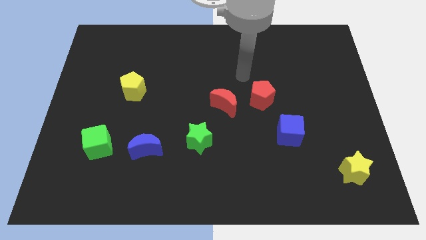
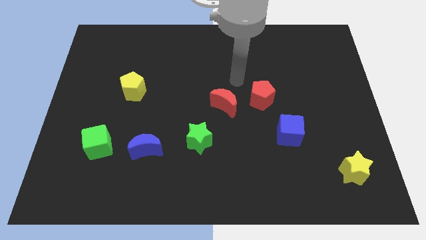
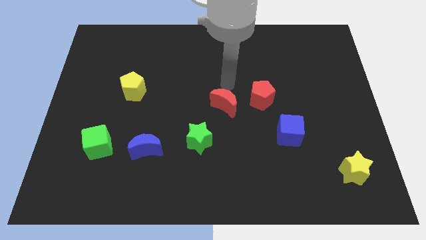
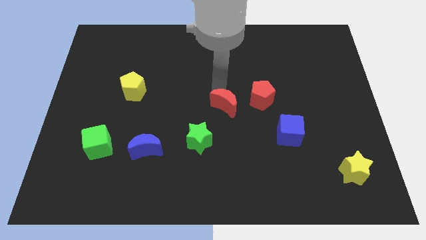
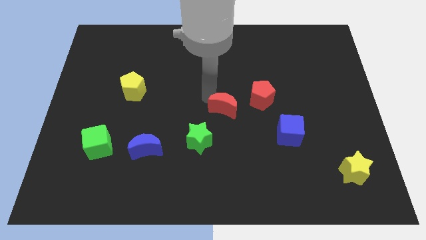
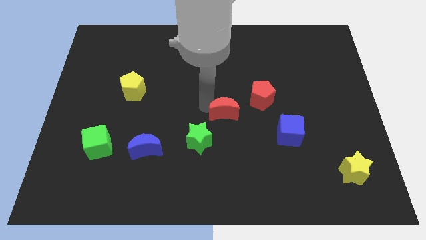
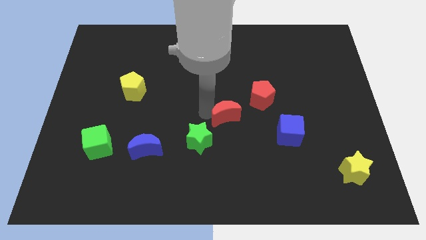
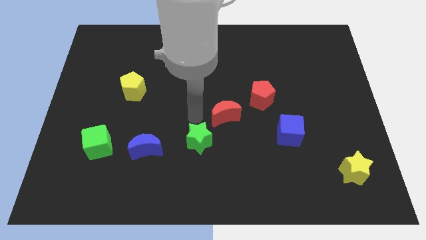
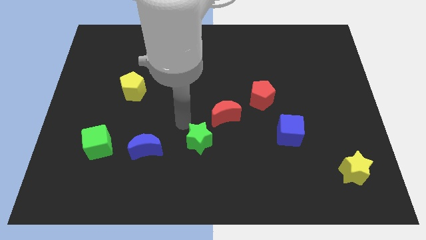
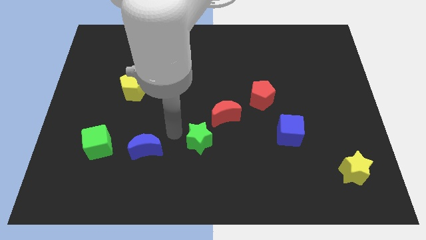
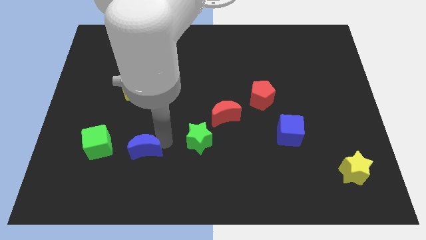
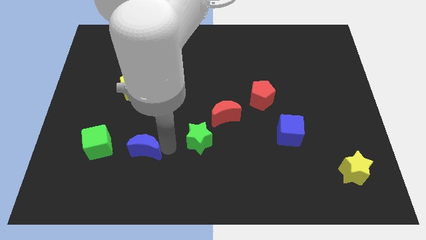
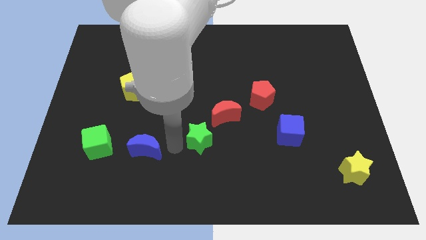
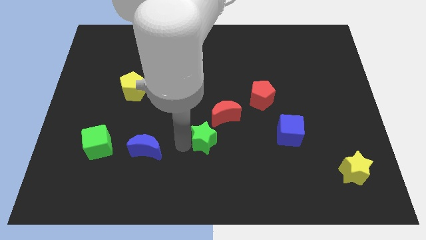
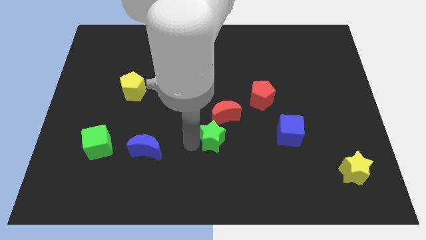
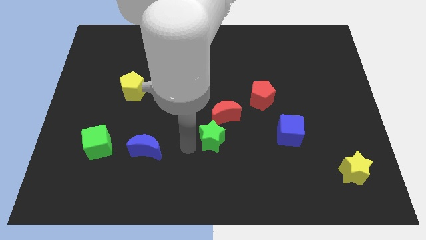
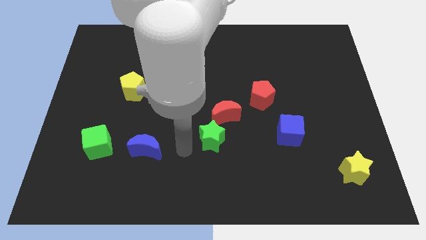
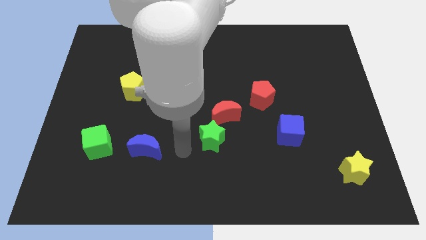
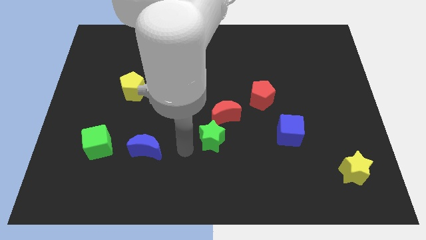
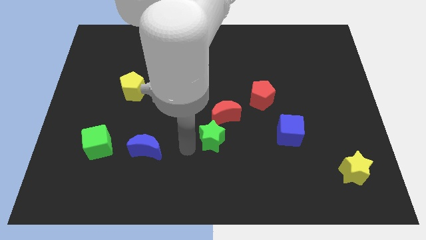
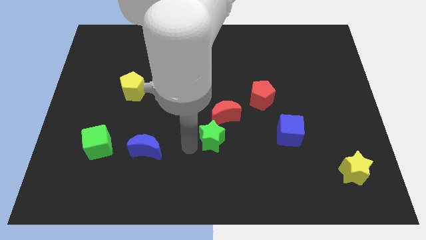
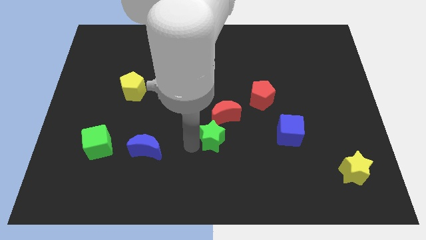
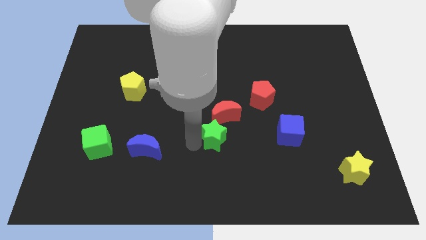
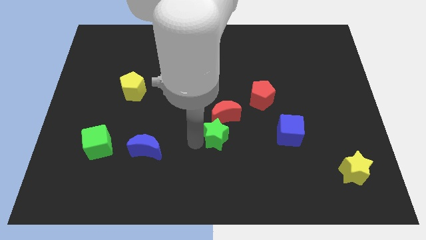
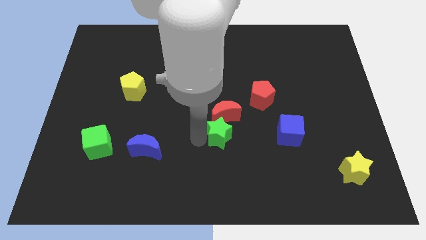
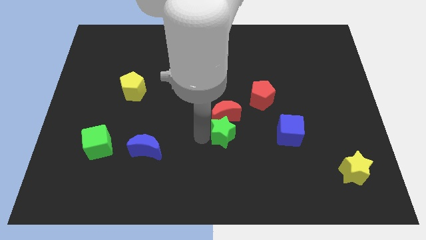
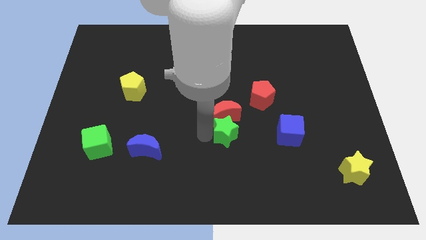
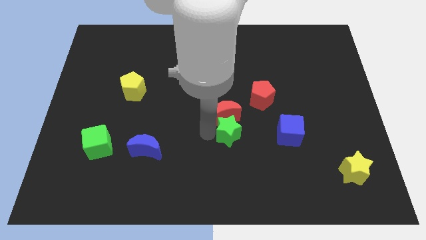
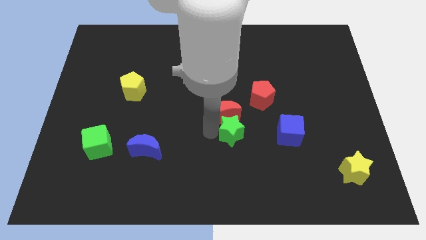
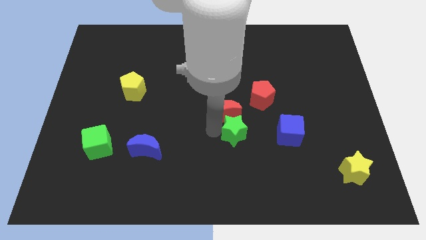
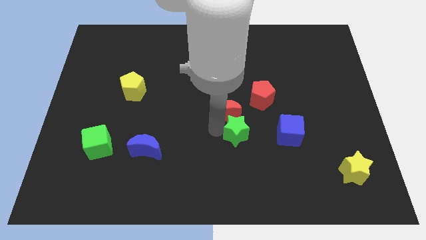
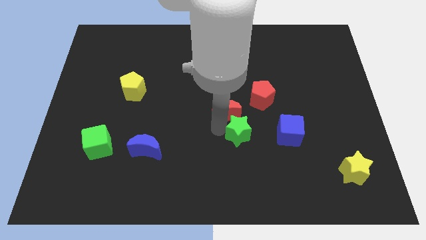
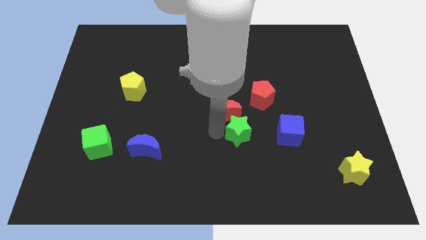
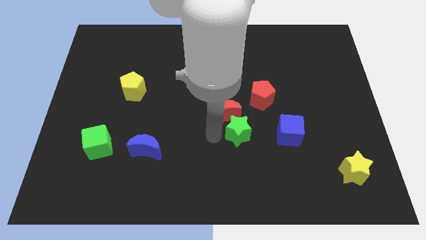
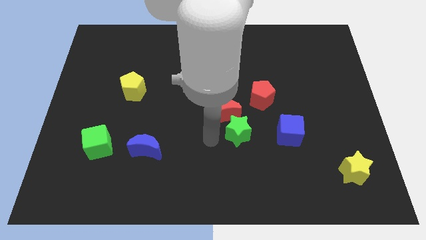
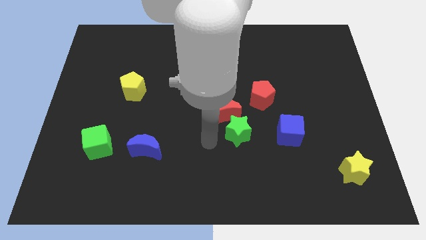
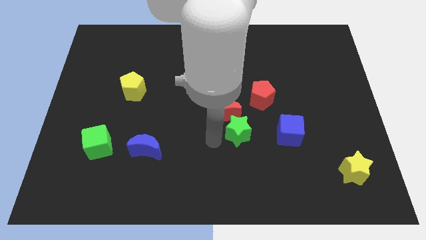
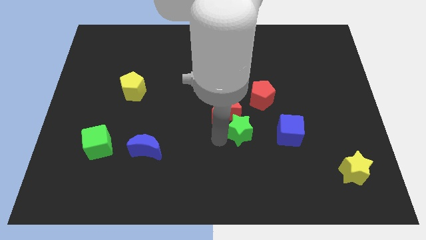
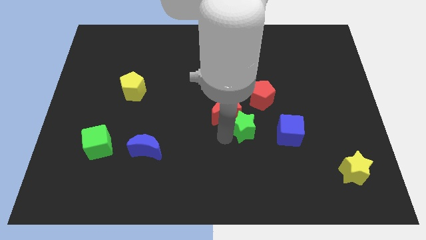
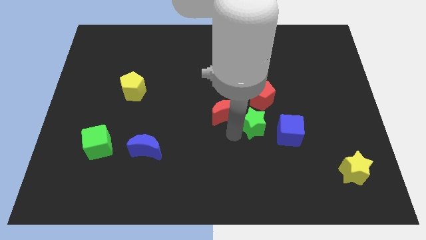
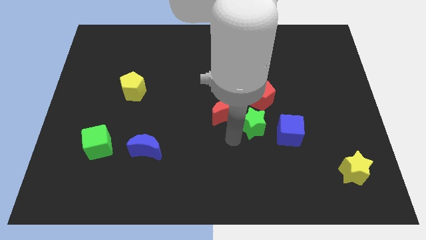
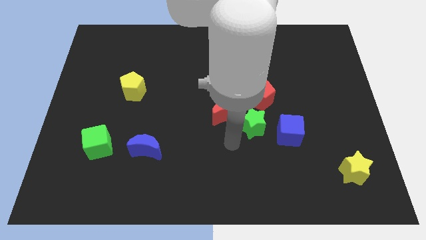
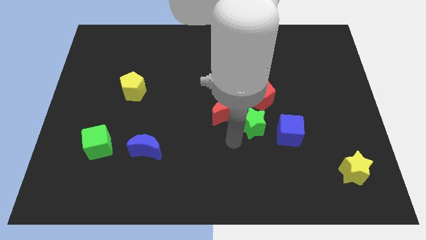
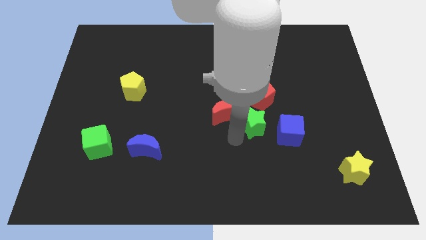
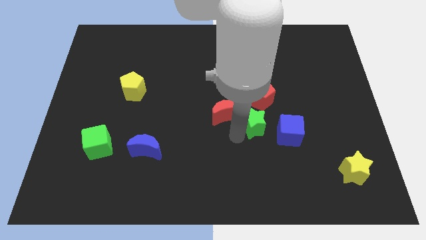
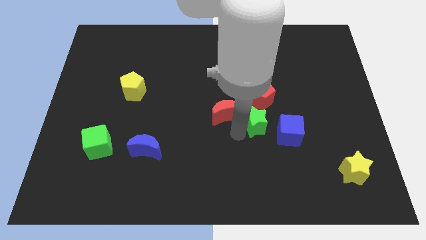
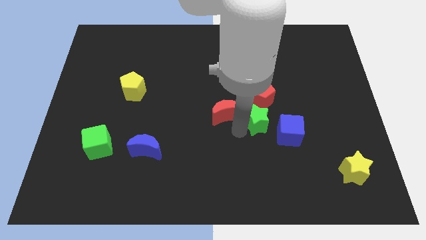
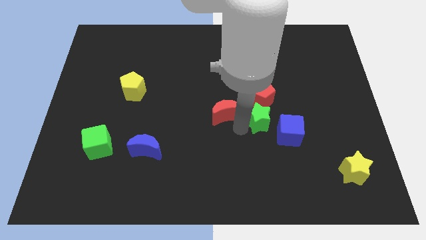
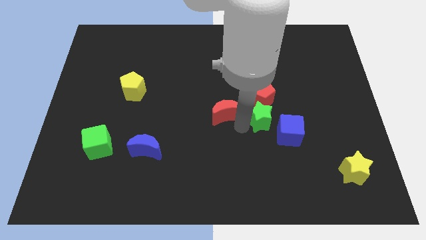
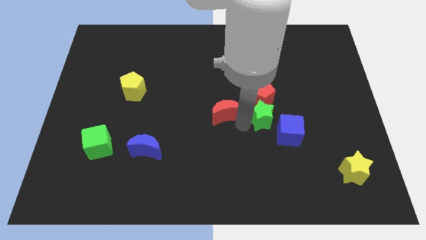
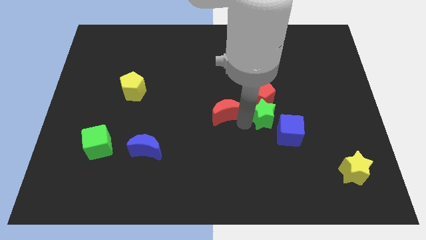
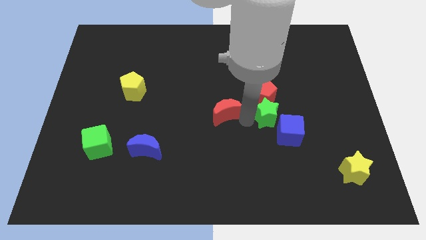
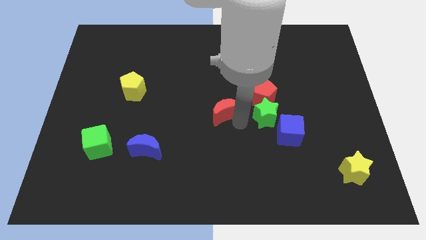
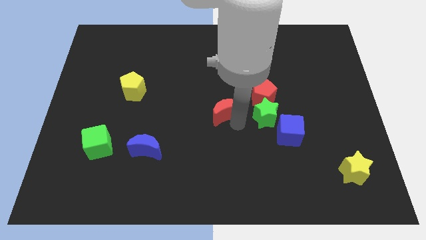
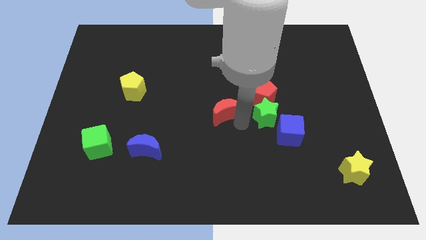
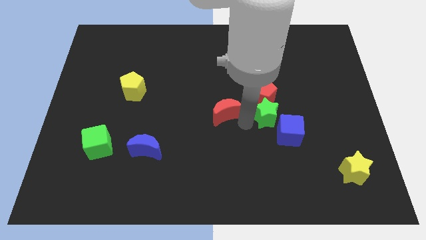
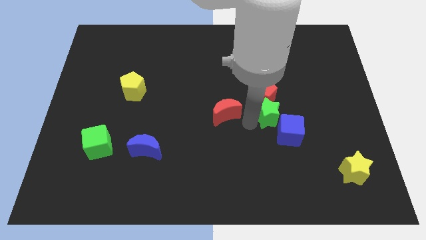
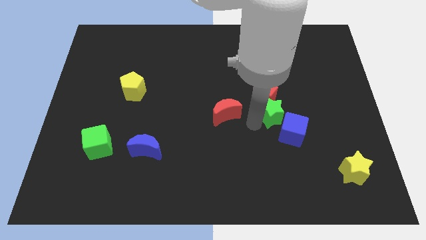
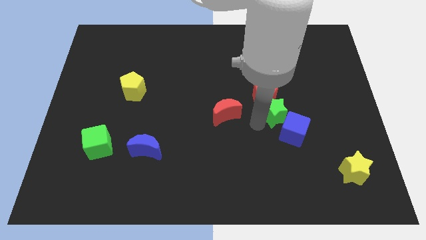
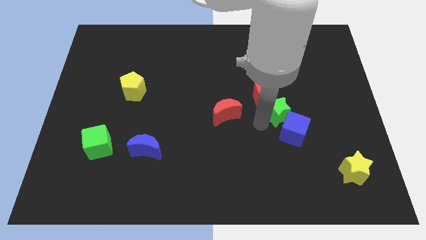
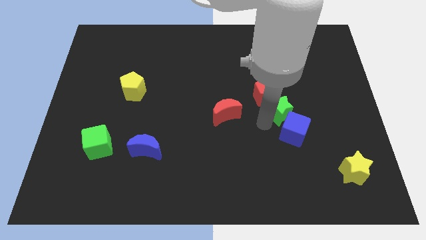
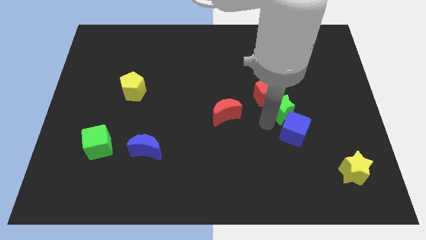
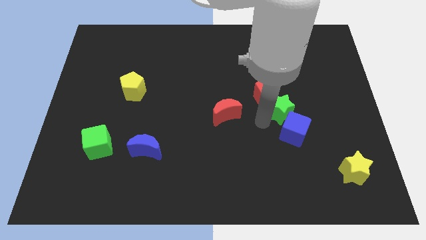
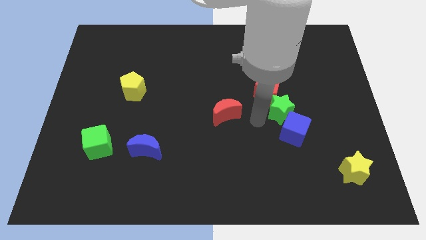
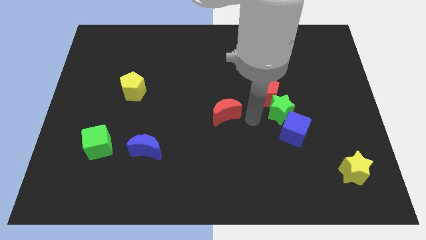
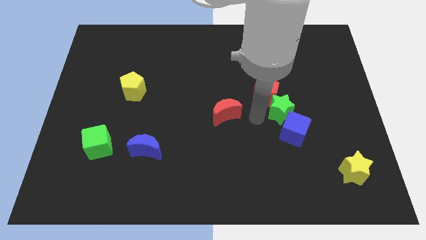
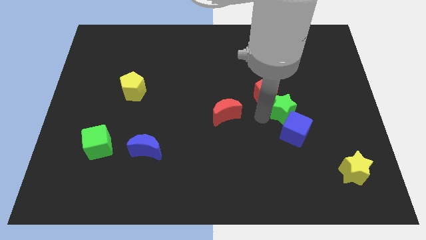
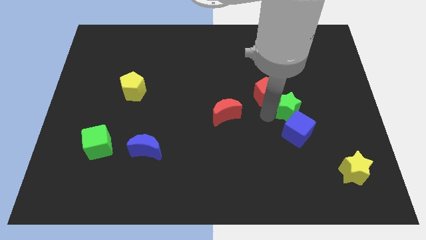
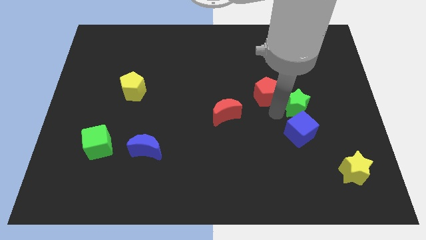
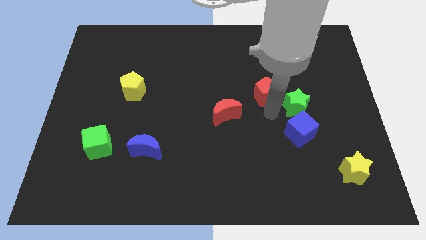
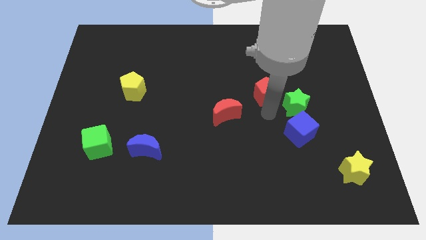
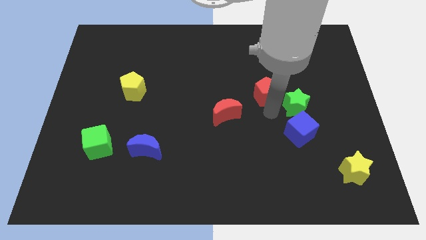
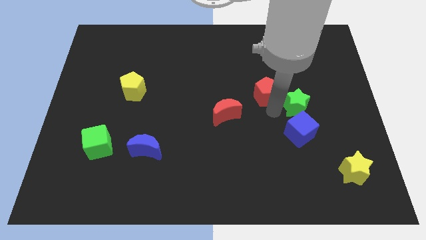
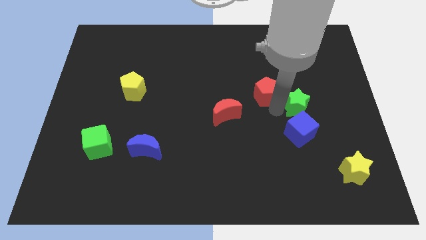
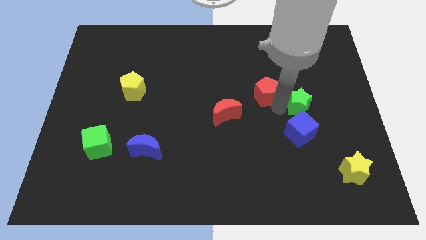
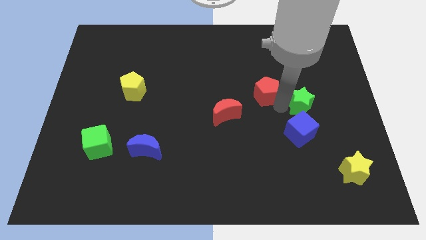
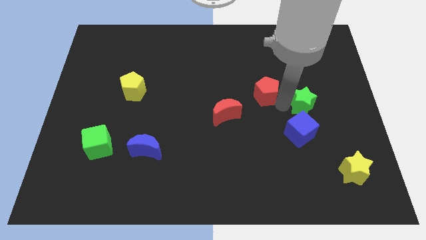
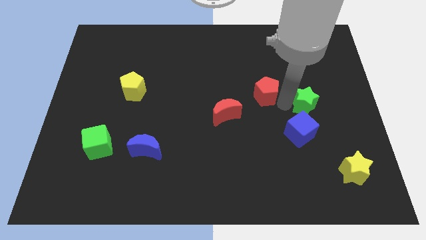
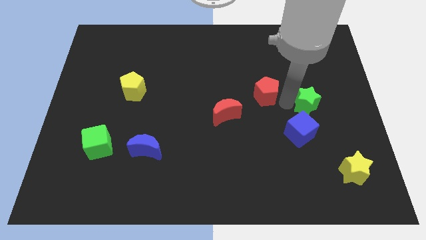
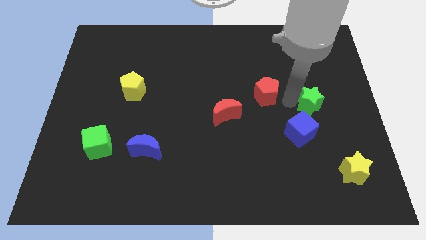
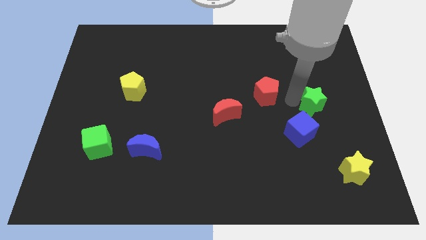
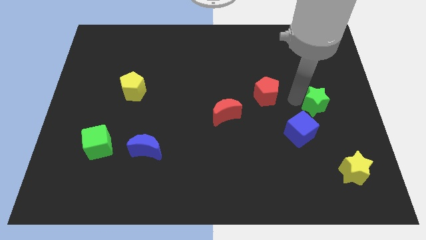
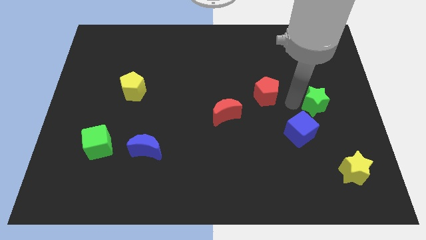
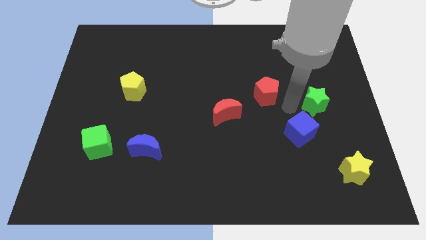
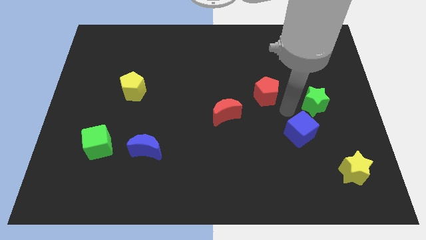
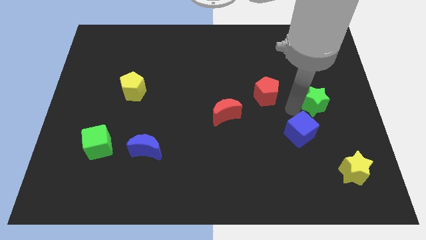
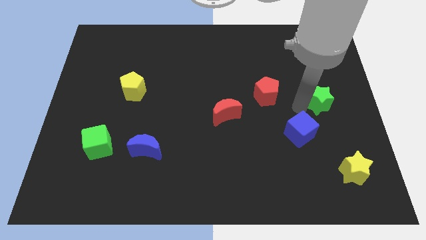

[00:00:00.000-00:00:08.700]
put the green star to the right side
